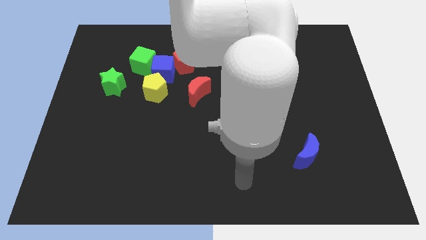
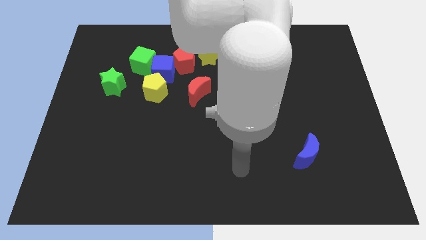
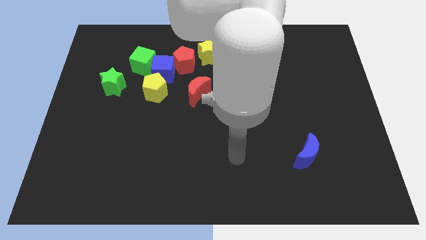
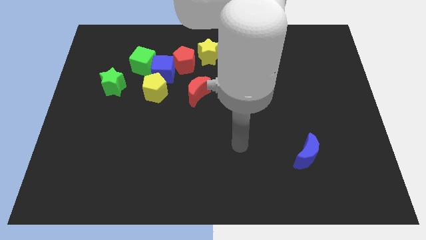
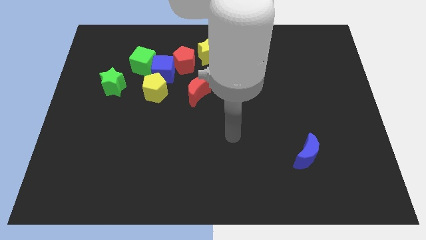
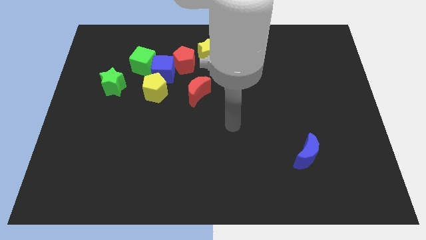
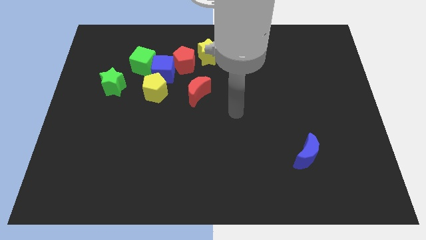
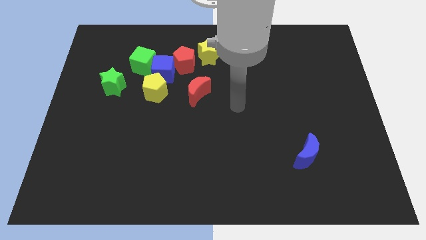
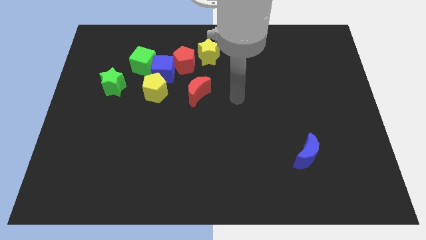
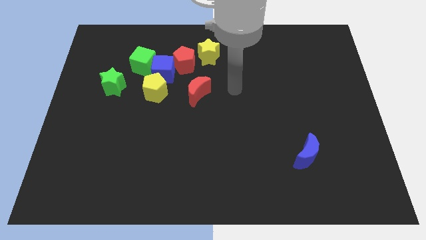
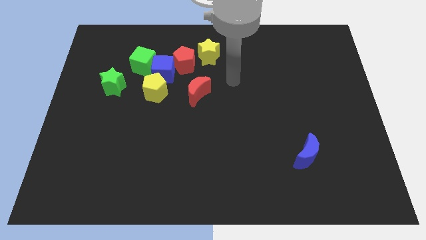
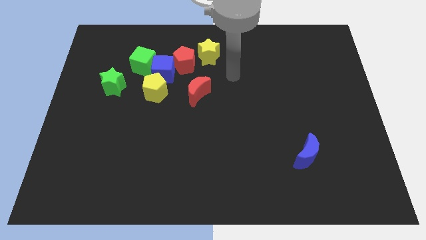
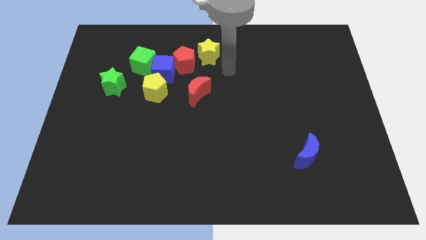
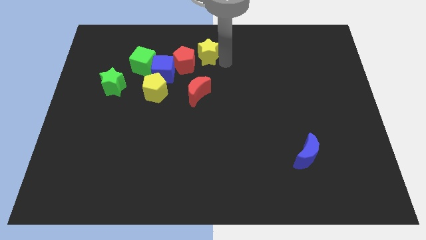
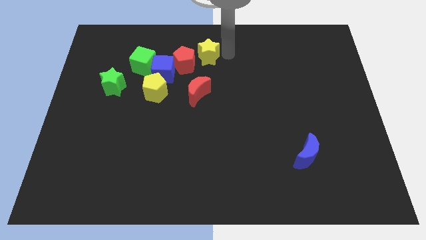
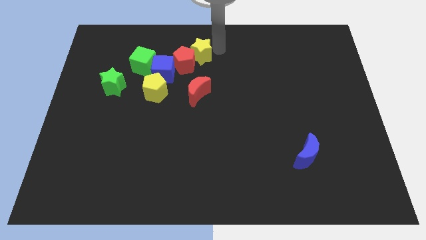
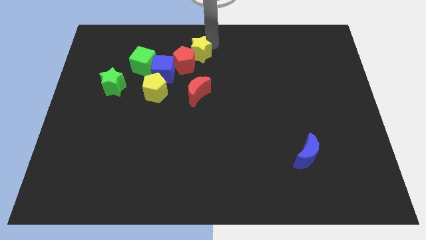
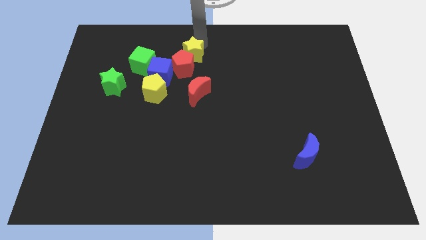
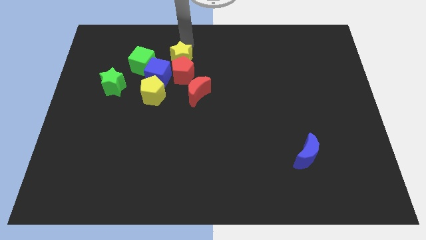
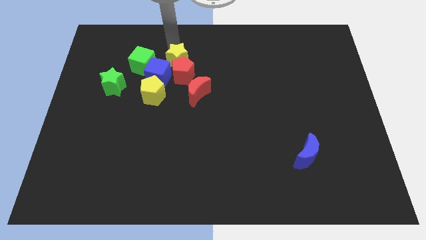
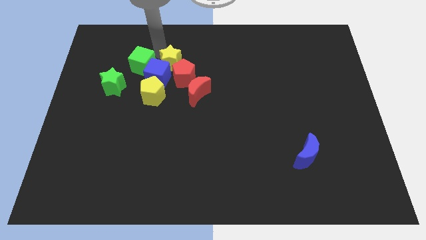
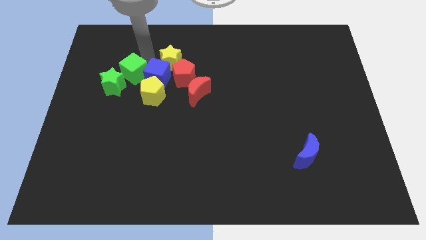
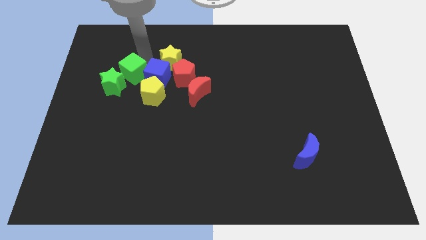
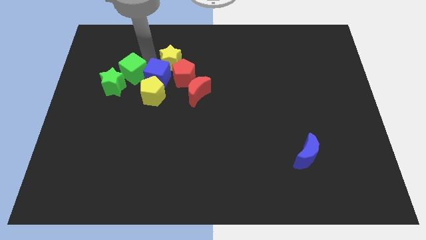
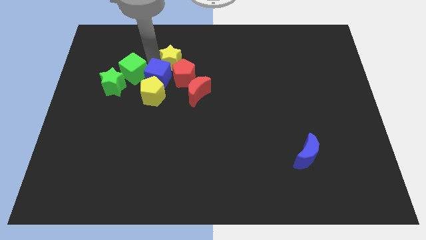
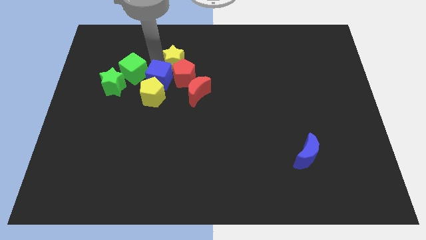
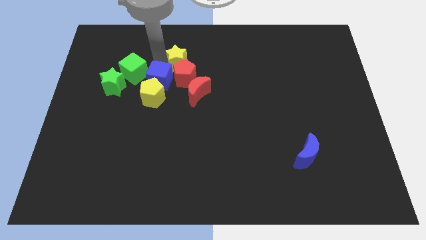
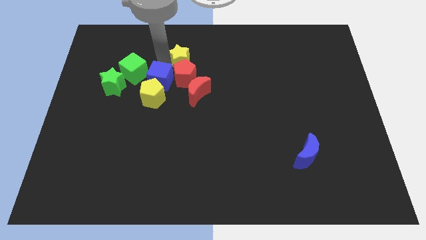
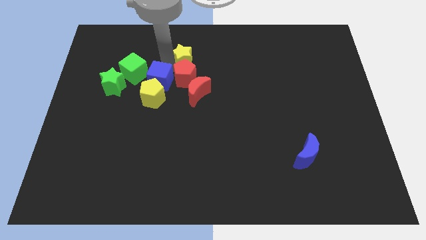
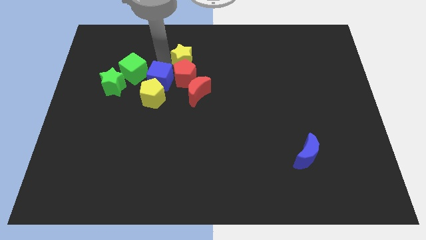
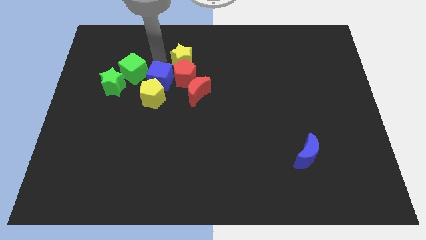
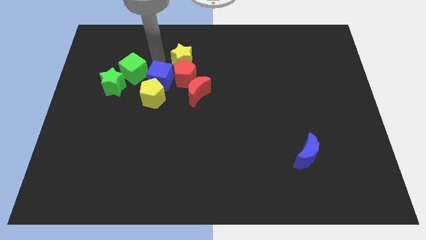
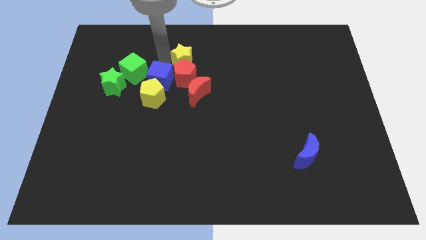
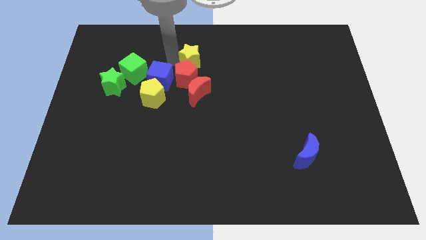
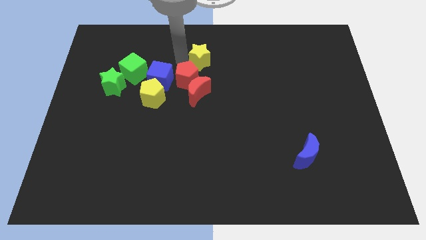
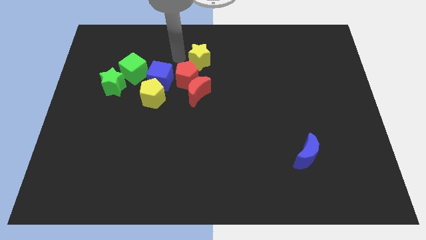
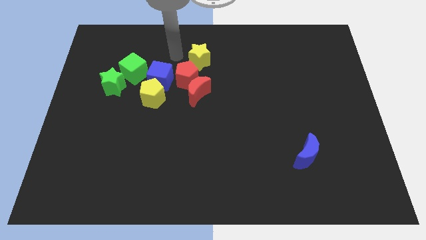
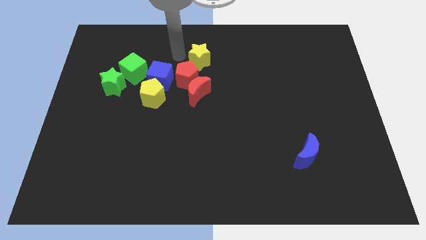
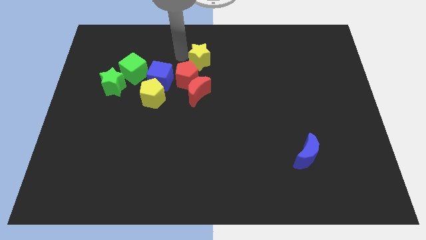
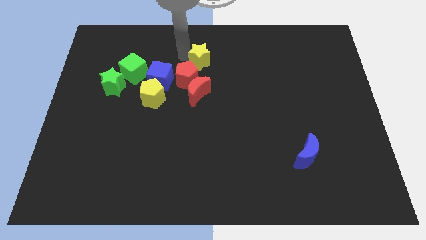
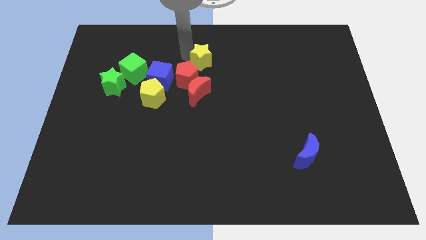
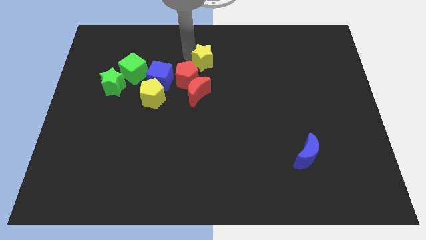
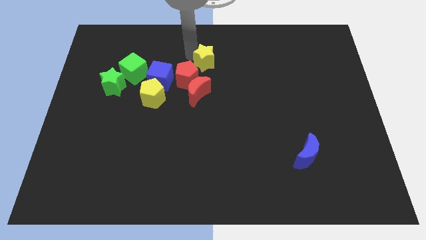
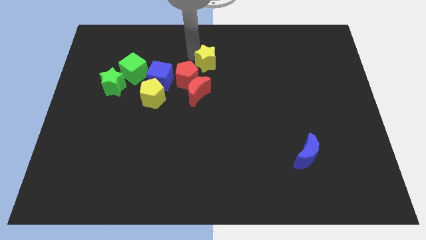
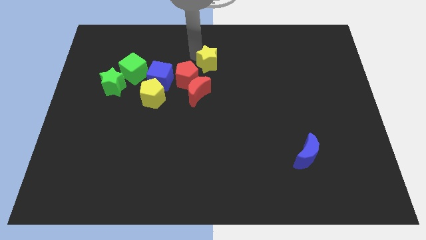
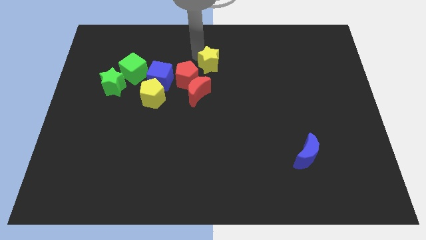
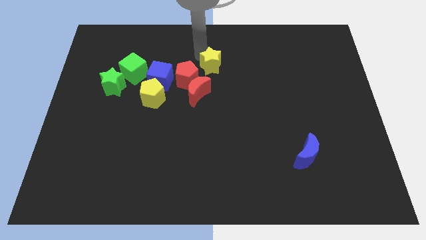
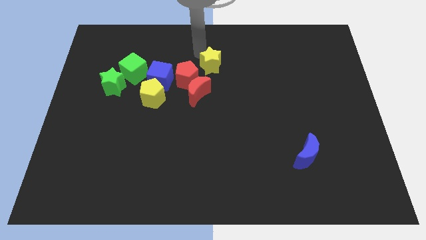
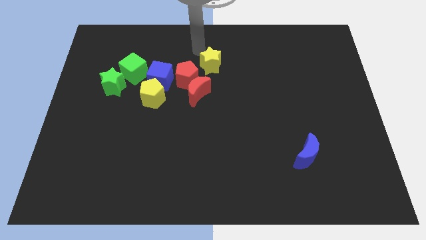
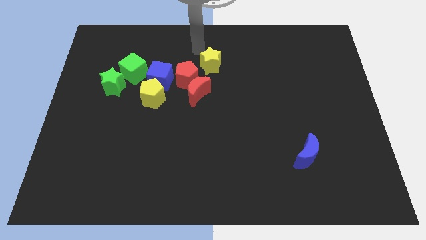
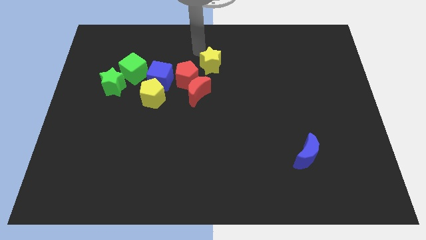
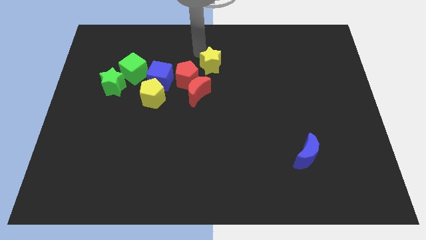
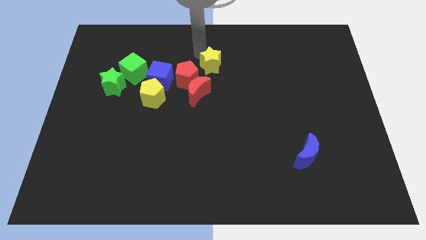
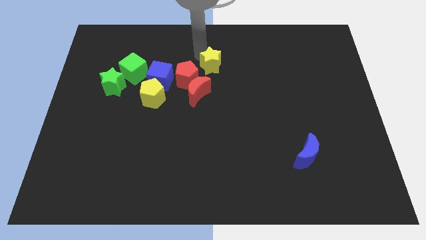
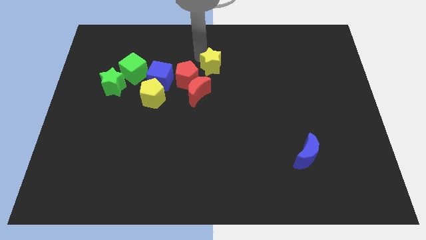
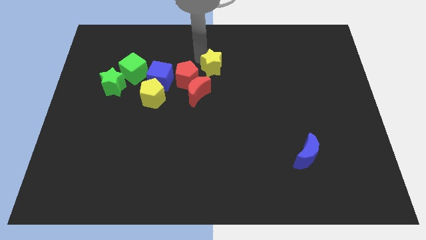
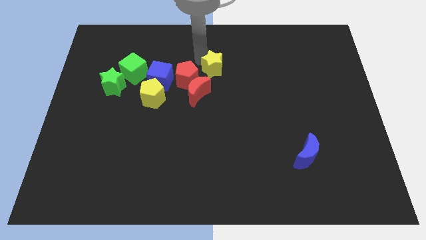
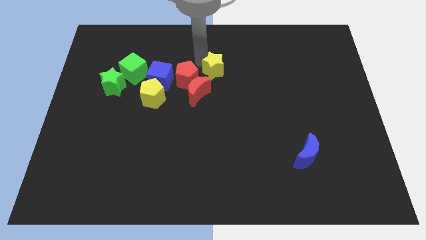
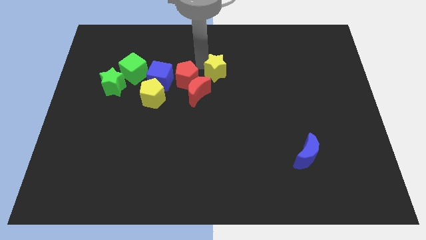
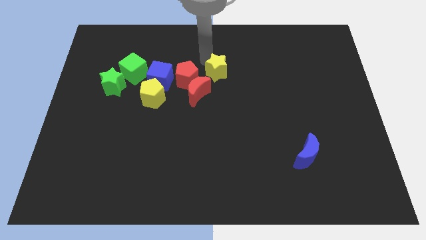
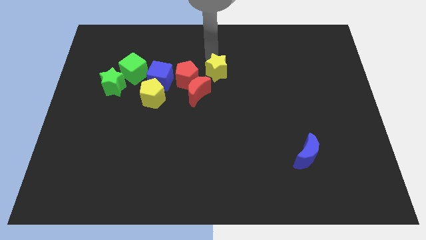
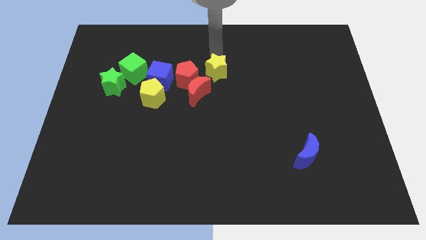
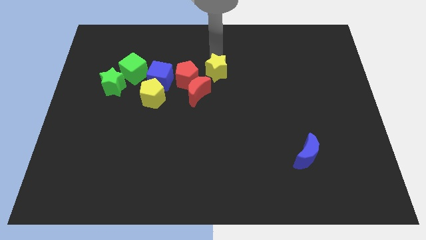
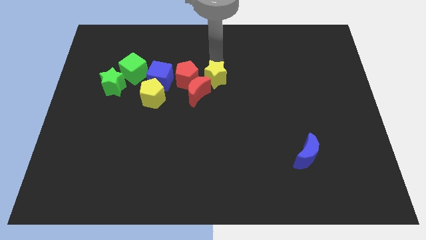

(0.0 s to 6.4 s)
slightly move the yellow star downwards

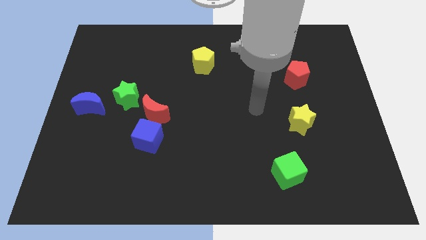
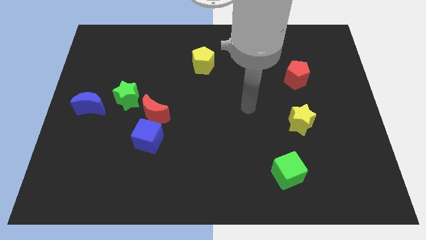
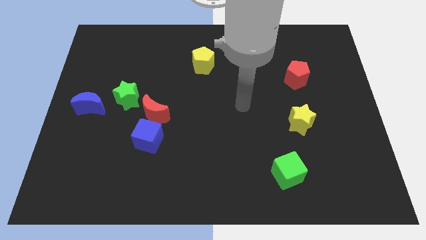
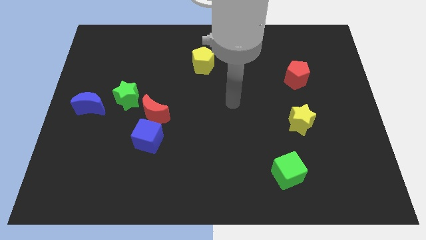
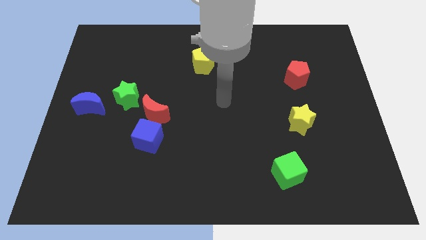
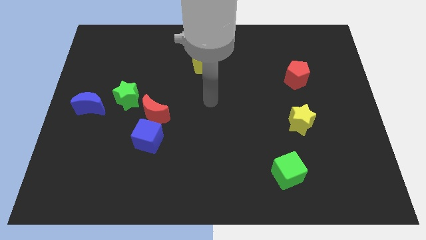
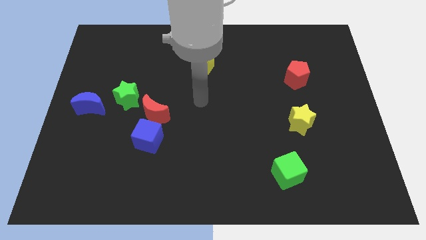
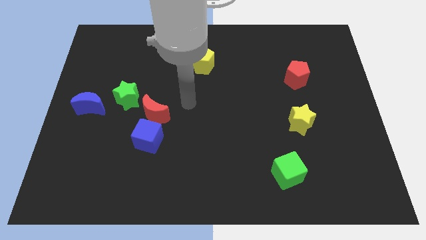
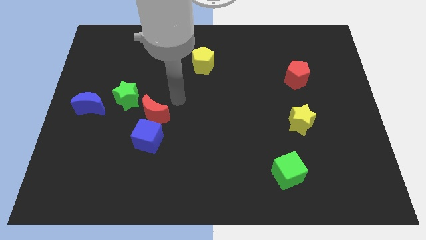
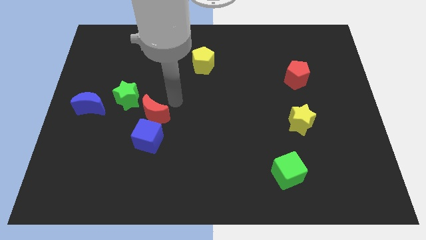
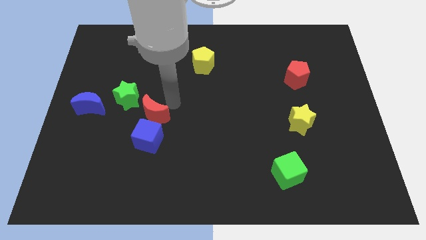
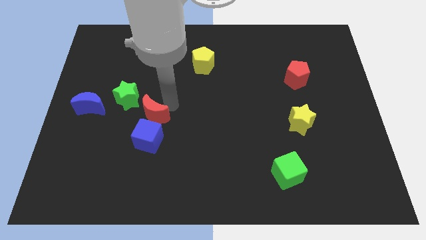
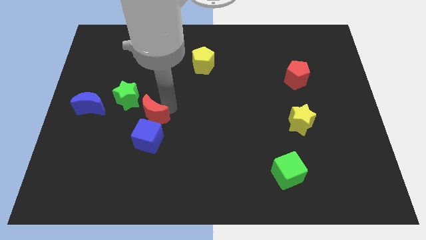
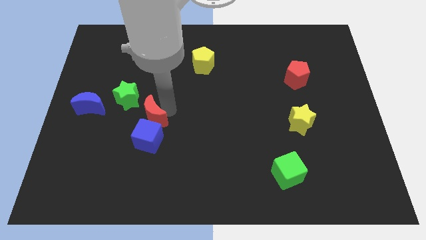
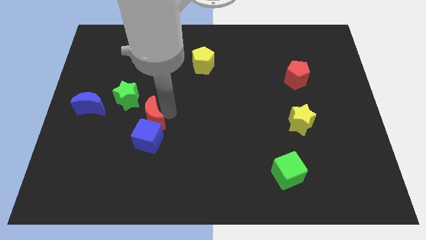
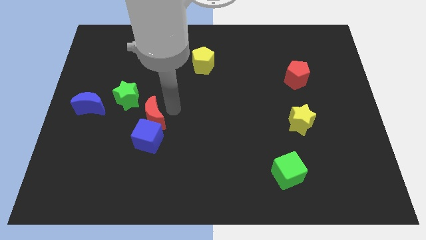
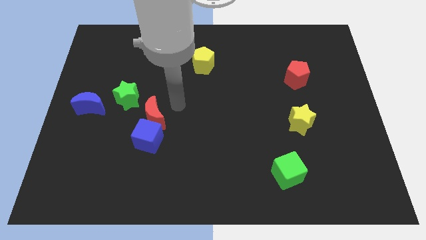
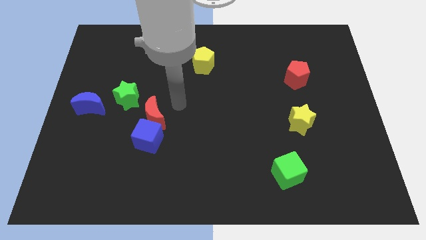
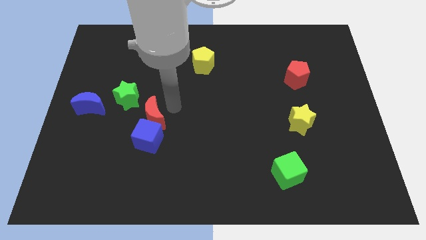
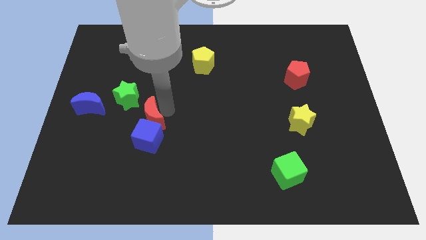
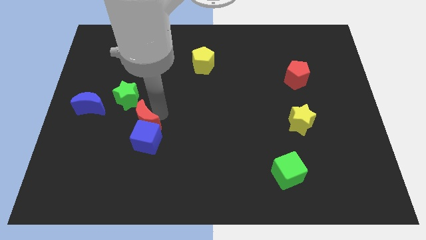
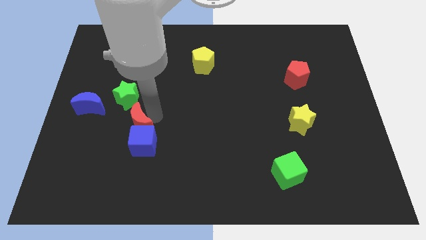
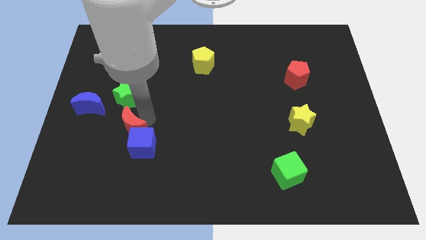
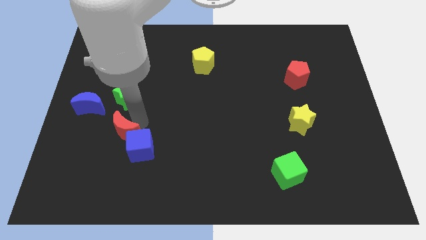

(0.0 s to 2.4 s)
move the red moon slightly diagonally down and to the left
